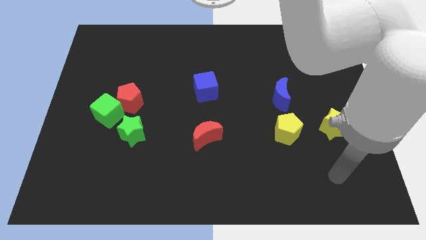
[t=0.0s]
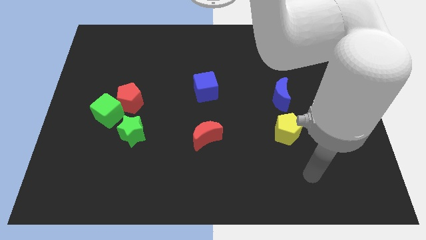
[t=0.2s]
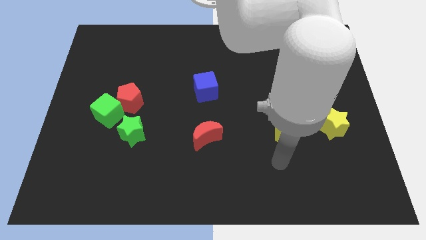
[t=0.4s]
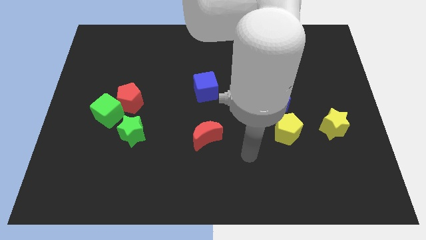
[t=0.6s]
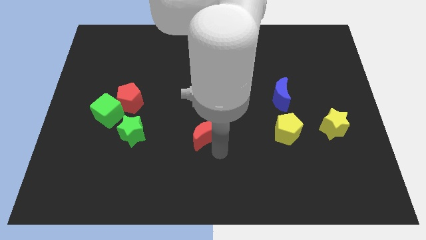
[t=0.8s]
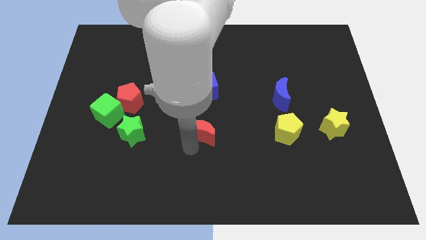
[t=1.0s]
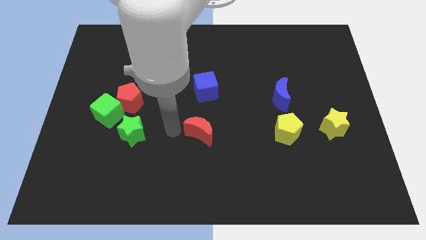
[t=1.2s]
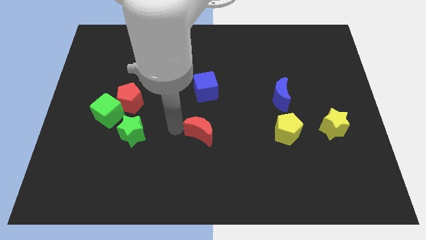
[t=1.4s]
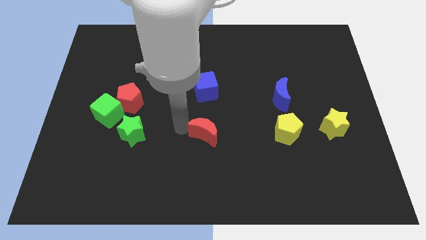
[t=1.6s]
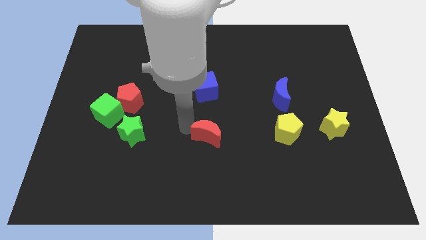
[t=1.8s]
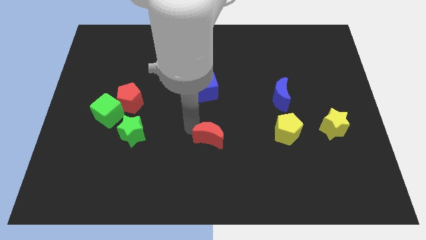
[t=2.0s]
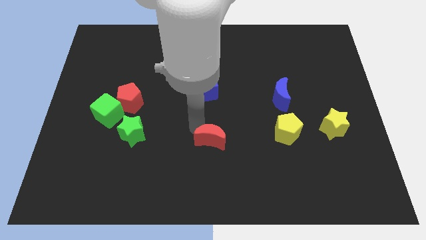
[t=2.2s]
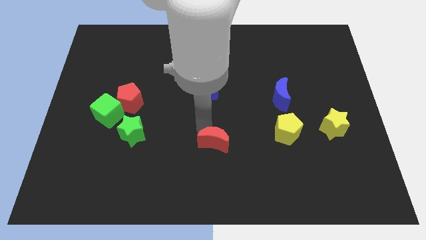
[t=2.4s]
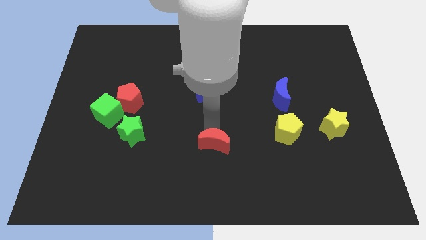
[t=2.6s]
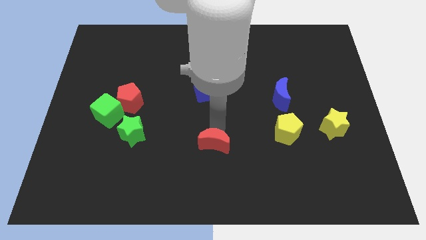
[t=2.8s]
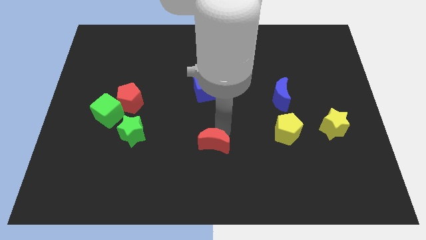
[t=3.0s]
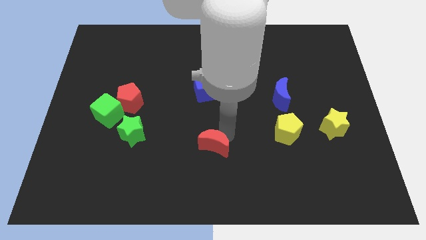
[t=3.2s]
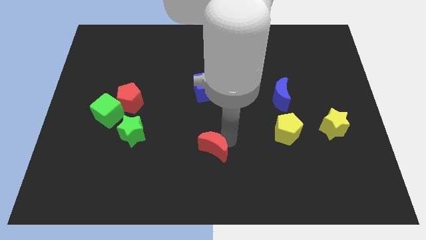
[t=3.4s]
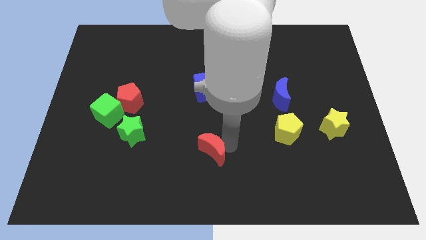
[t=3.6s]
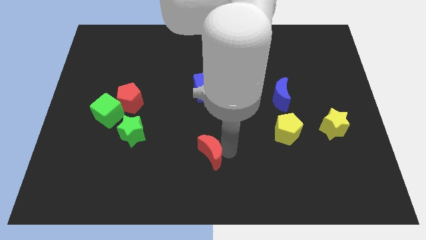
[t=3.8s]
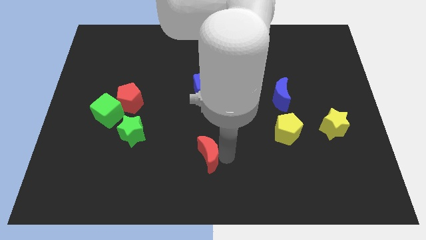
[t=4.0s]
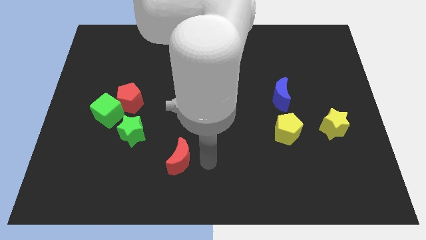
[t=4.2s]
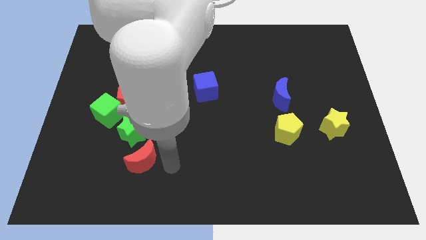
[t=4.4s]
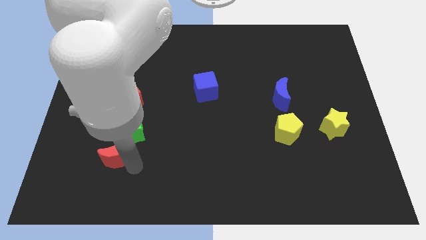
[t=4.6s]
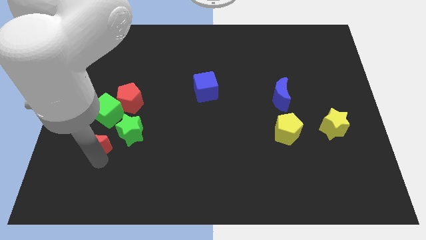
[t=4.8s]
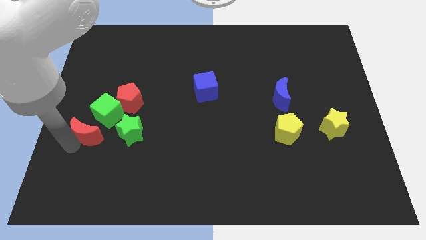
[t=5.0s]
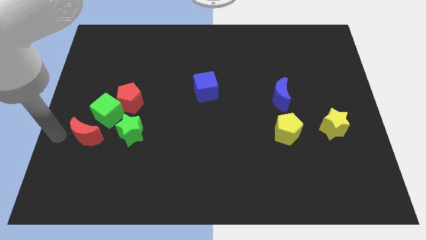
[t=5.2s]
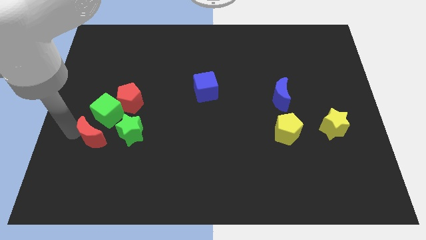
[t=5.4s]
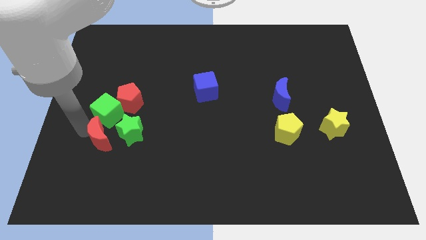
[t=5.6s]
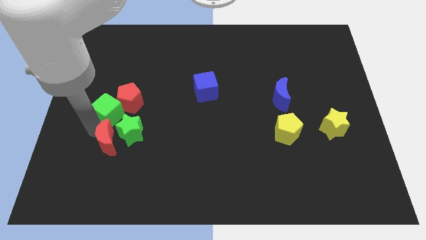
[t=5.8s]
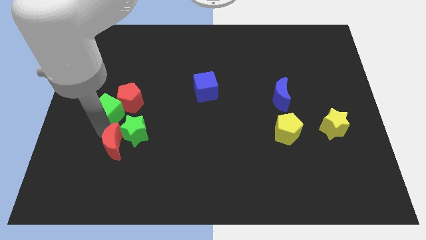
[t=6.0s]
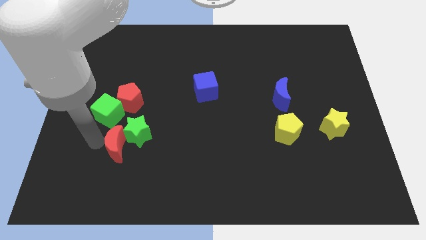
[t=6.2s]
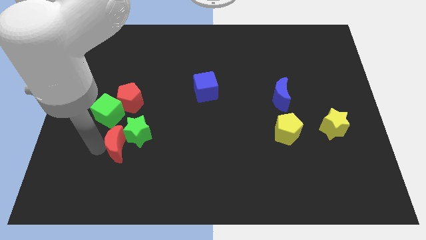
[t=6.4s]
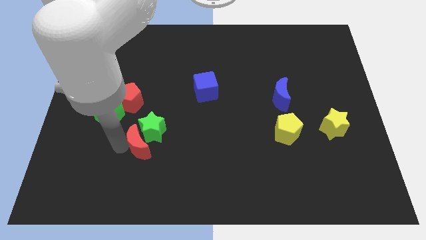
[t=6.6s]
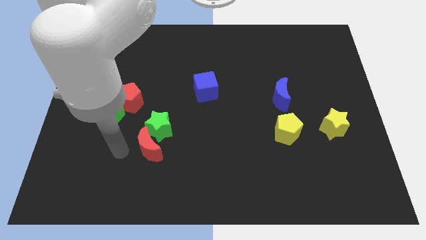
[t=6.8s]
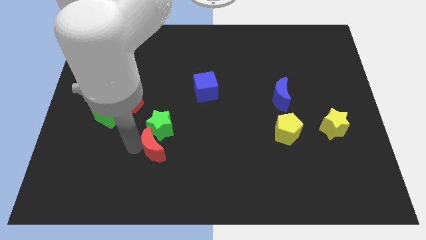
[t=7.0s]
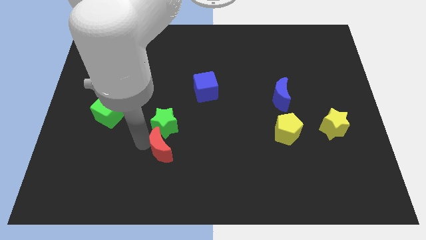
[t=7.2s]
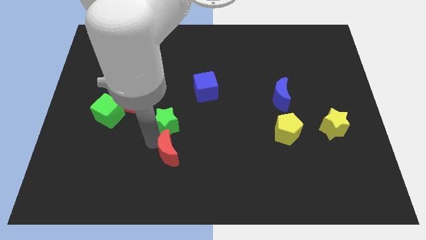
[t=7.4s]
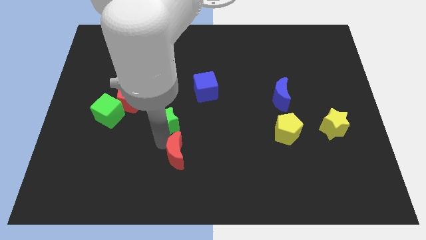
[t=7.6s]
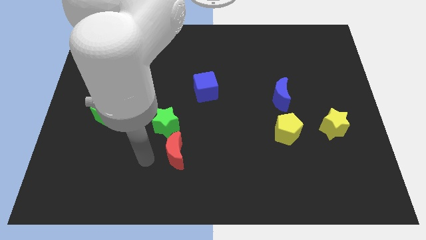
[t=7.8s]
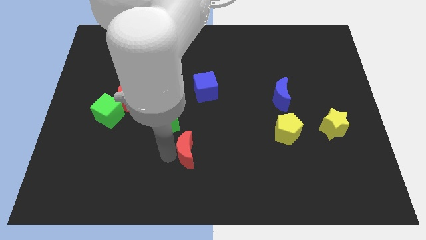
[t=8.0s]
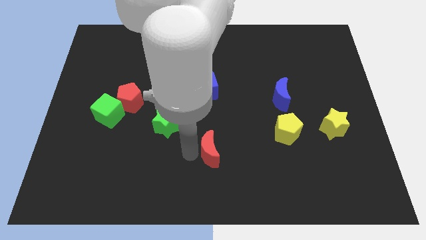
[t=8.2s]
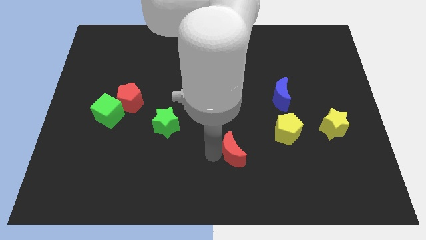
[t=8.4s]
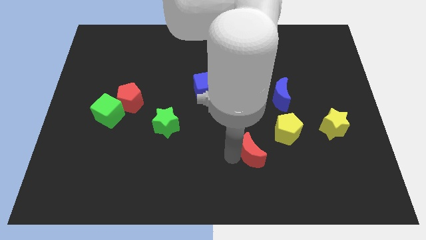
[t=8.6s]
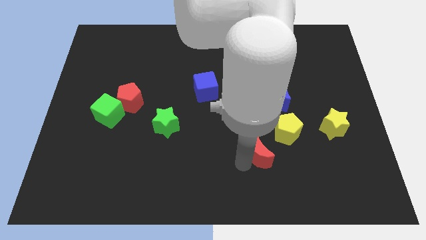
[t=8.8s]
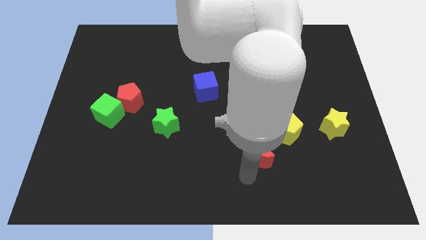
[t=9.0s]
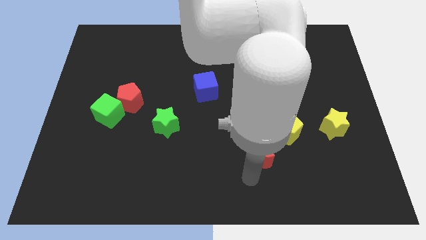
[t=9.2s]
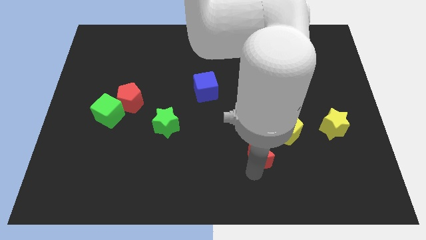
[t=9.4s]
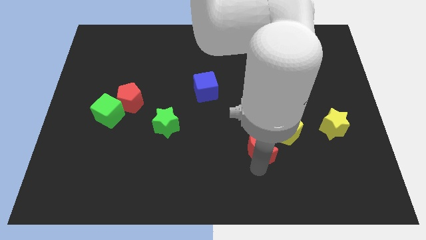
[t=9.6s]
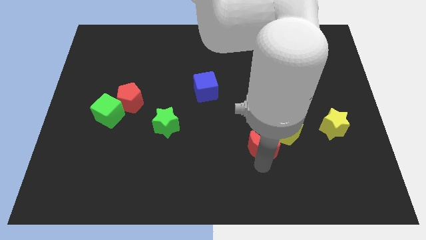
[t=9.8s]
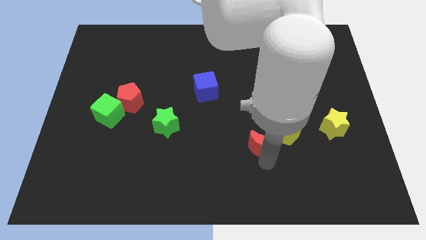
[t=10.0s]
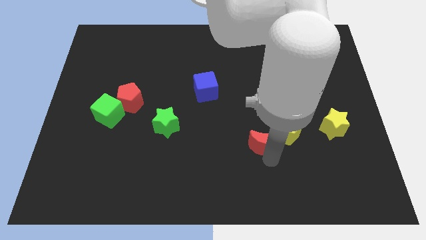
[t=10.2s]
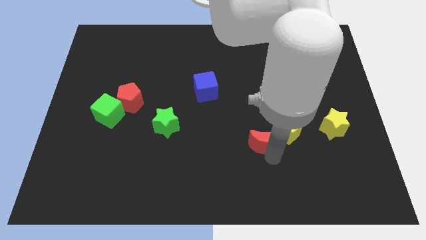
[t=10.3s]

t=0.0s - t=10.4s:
push the red moon towards the yellow pentagon

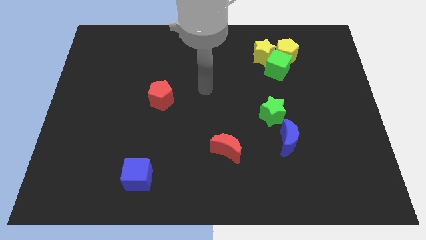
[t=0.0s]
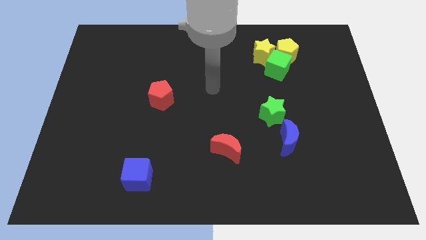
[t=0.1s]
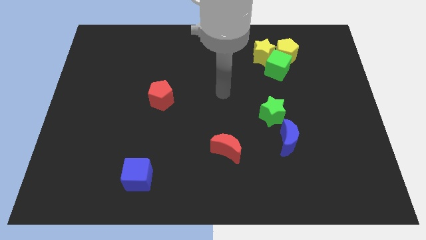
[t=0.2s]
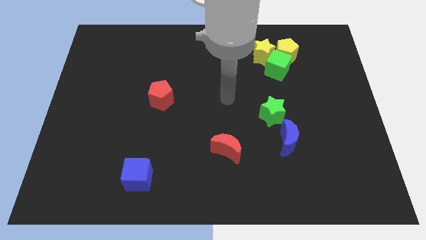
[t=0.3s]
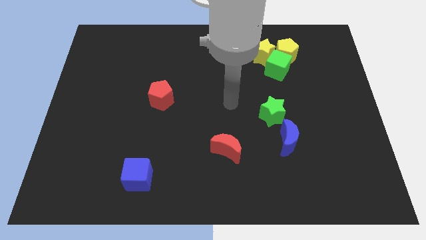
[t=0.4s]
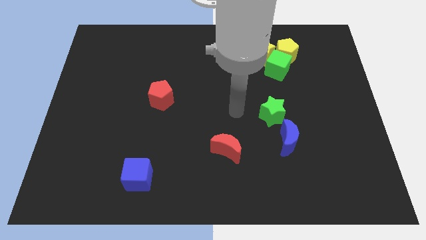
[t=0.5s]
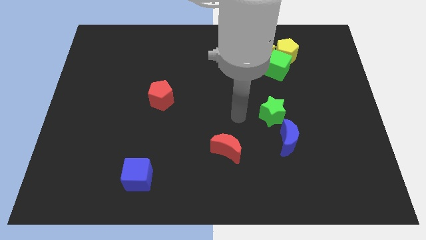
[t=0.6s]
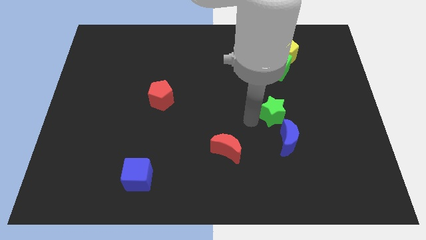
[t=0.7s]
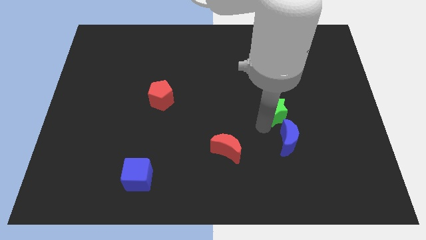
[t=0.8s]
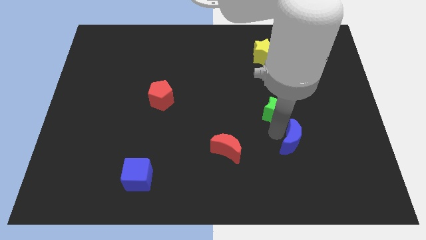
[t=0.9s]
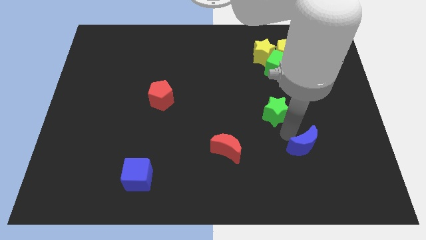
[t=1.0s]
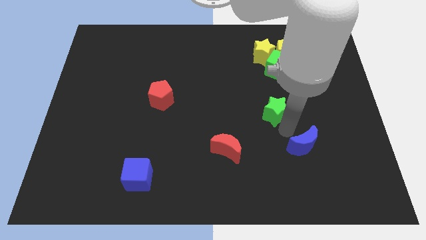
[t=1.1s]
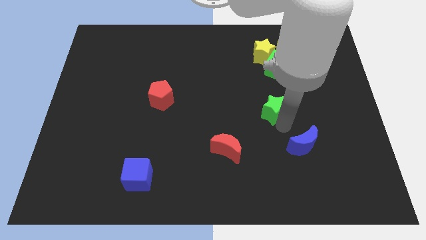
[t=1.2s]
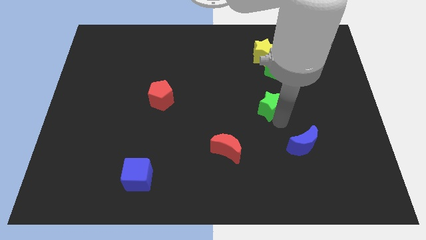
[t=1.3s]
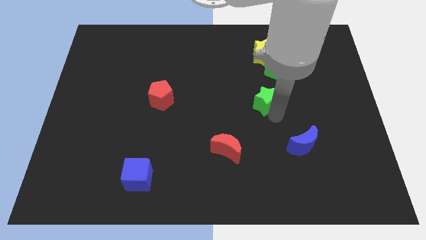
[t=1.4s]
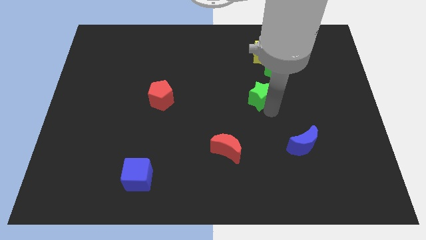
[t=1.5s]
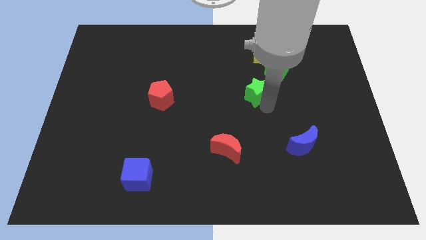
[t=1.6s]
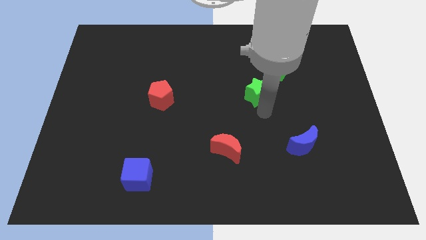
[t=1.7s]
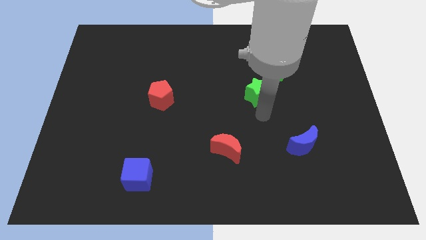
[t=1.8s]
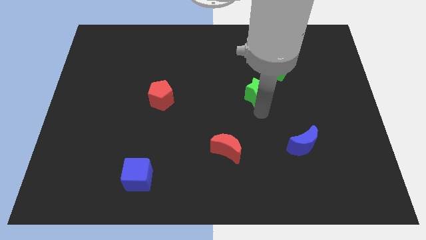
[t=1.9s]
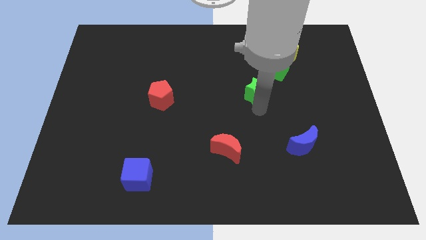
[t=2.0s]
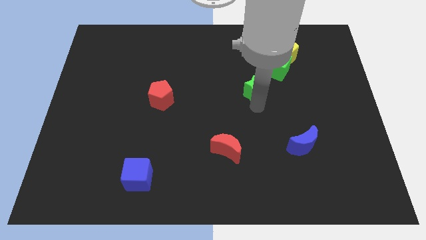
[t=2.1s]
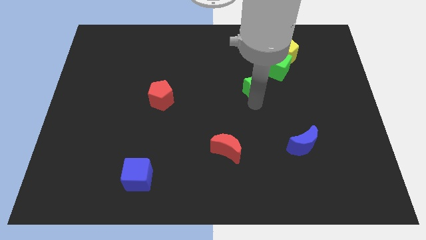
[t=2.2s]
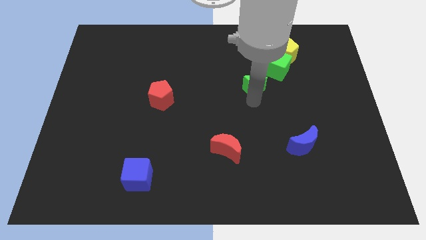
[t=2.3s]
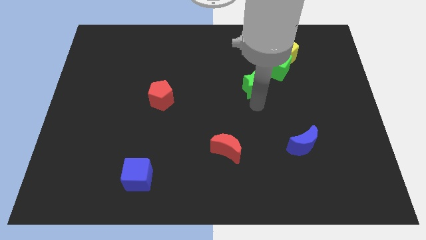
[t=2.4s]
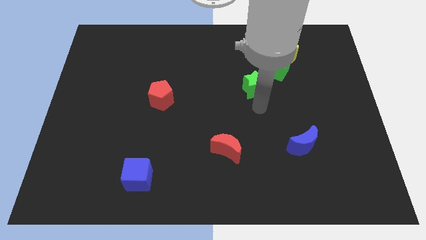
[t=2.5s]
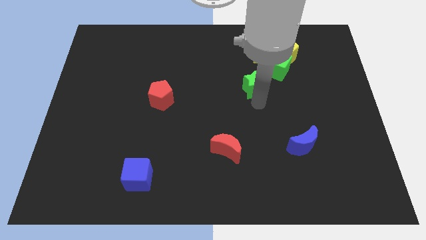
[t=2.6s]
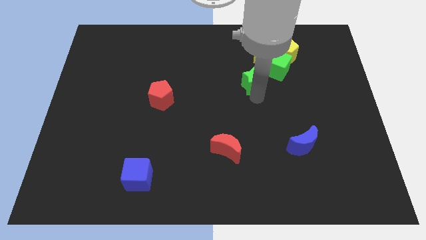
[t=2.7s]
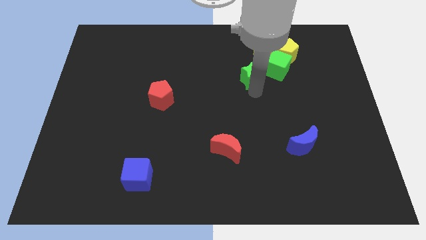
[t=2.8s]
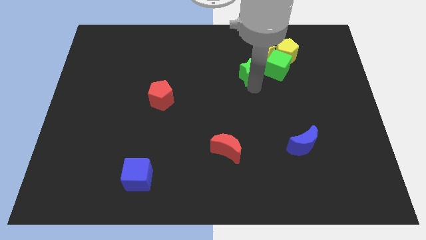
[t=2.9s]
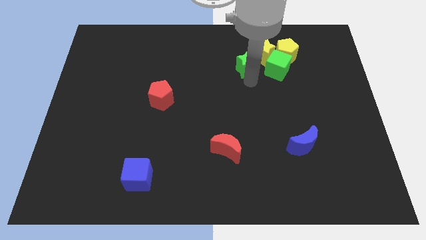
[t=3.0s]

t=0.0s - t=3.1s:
push the green star towards the yellow star
